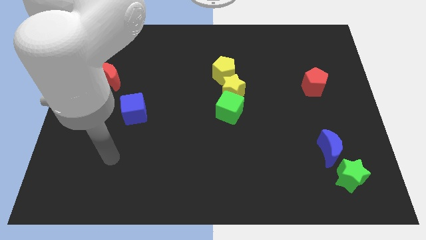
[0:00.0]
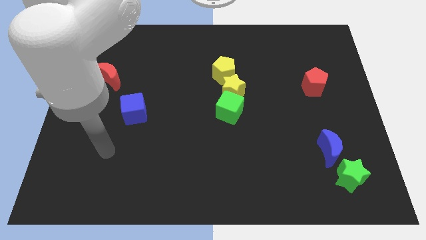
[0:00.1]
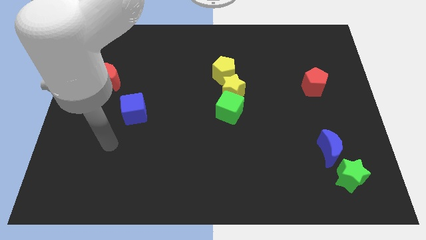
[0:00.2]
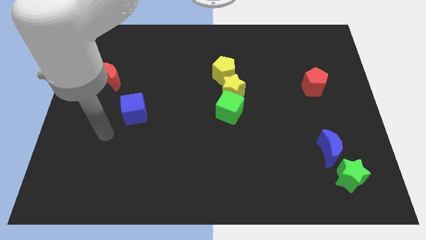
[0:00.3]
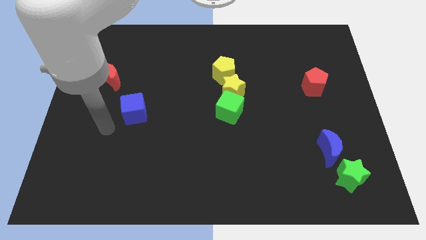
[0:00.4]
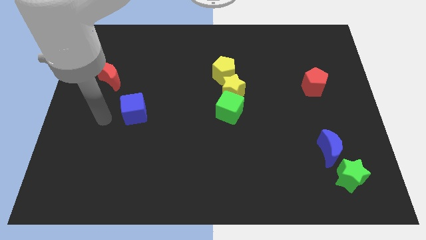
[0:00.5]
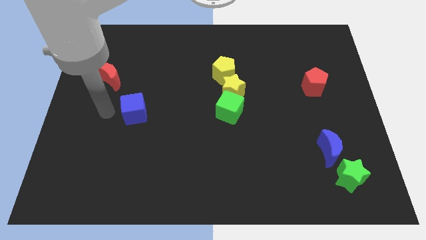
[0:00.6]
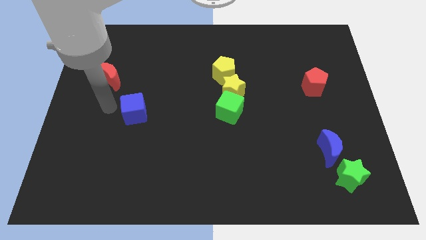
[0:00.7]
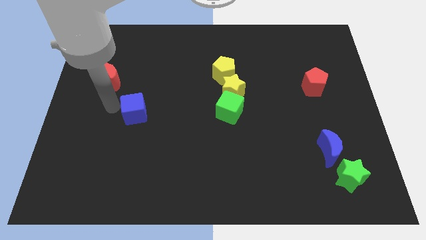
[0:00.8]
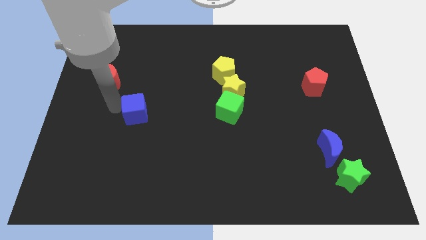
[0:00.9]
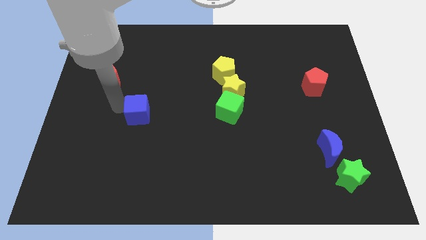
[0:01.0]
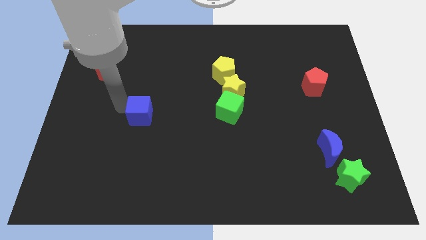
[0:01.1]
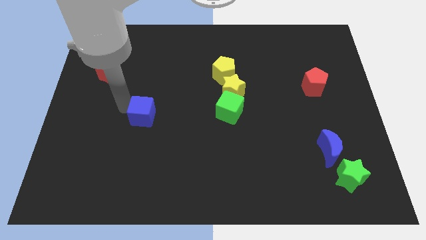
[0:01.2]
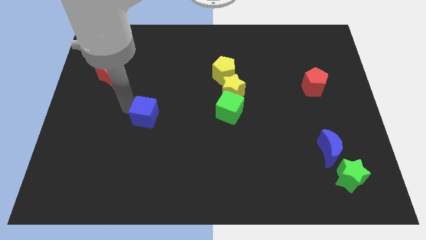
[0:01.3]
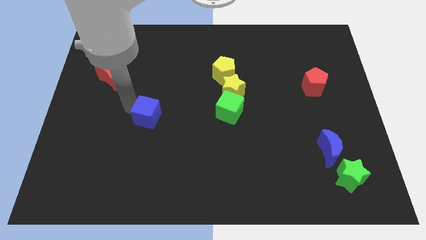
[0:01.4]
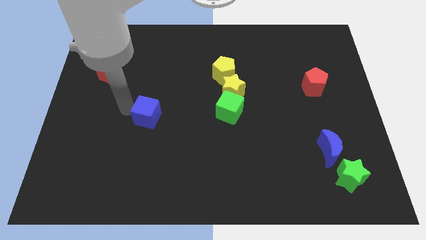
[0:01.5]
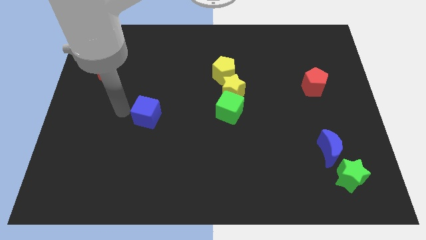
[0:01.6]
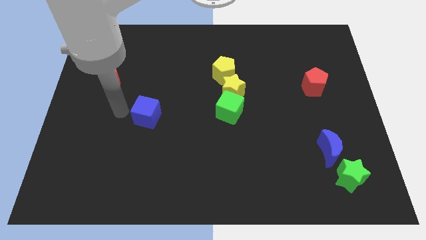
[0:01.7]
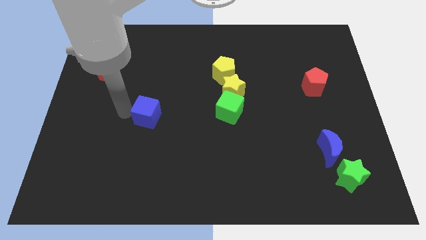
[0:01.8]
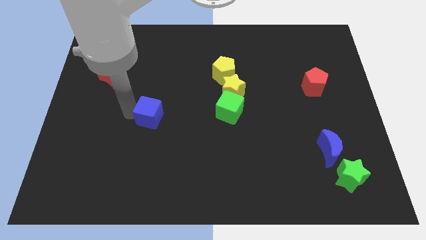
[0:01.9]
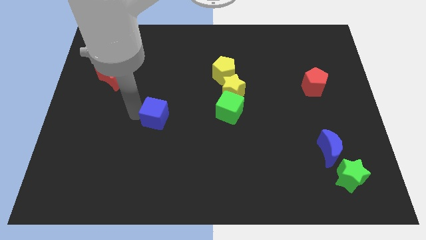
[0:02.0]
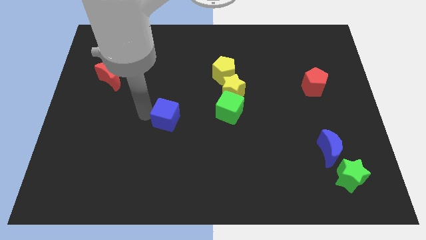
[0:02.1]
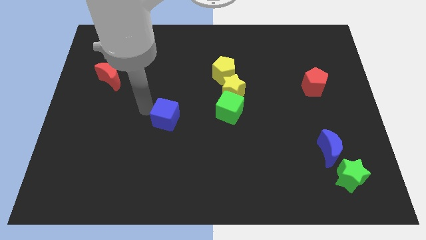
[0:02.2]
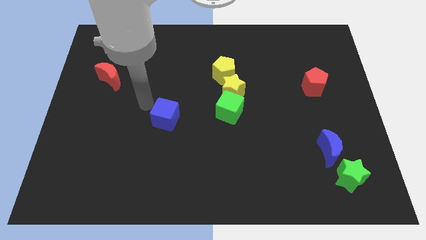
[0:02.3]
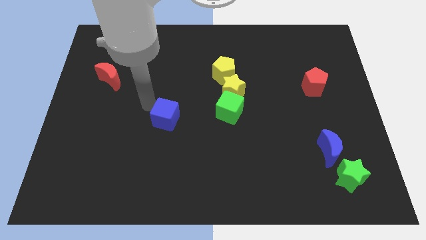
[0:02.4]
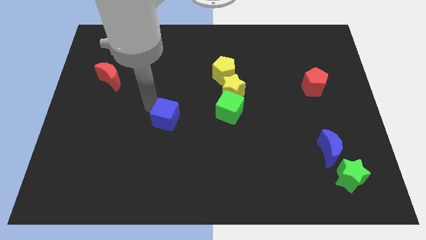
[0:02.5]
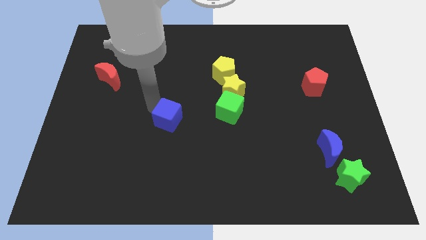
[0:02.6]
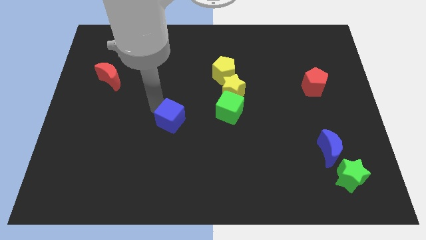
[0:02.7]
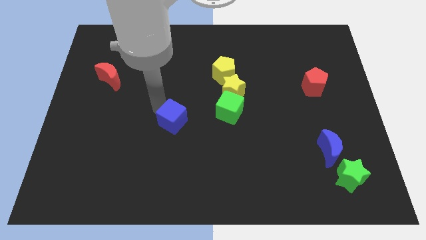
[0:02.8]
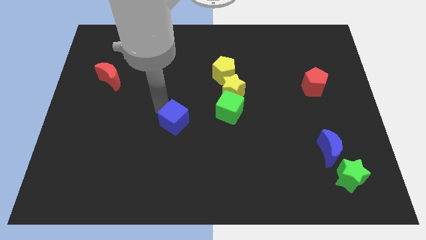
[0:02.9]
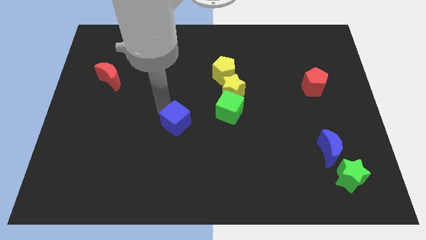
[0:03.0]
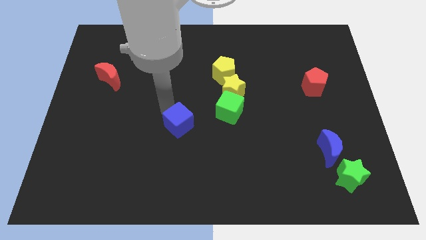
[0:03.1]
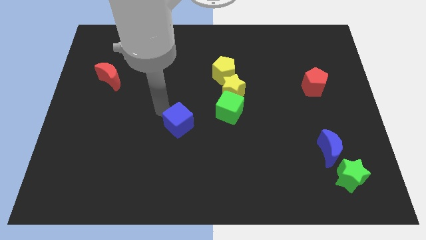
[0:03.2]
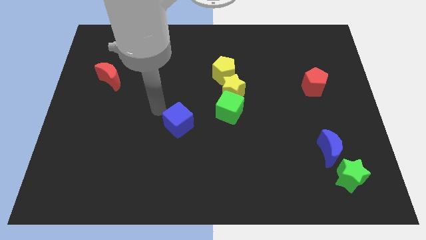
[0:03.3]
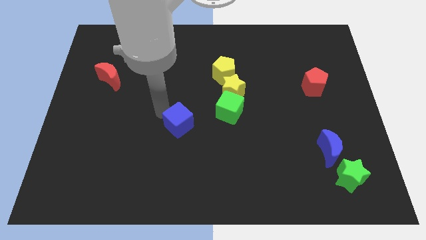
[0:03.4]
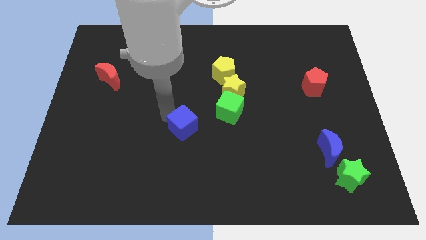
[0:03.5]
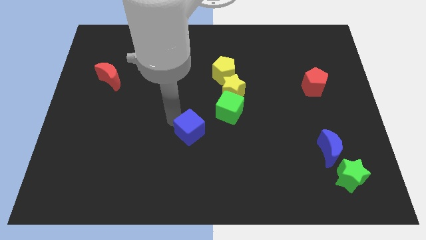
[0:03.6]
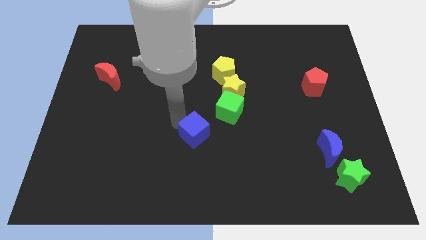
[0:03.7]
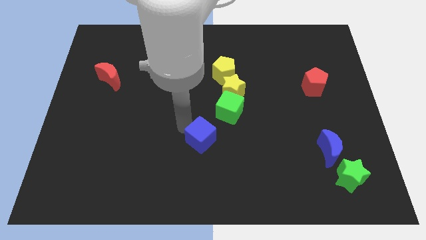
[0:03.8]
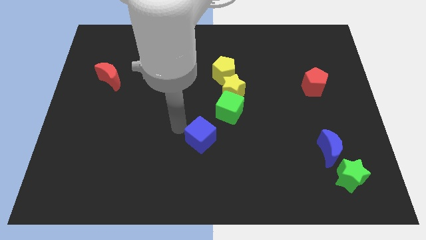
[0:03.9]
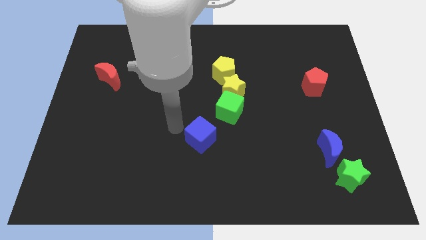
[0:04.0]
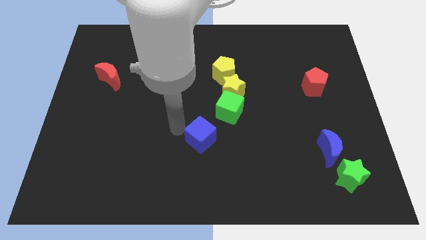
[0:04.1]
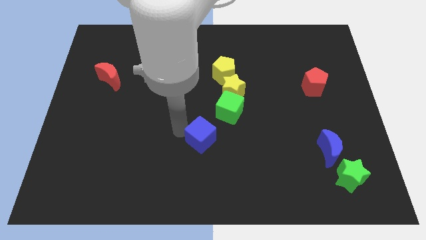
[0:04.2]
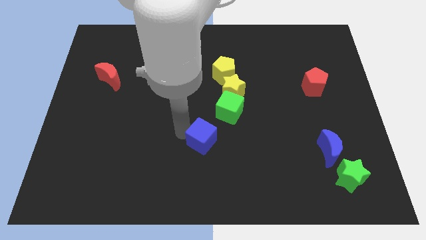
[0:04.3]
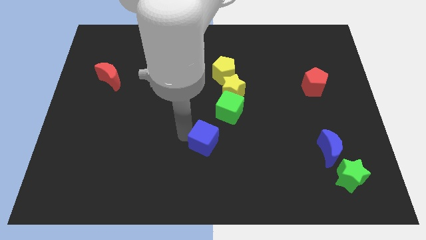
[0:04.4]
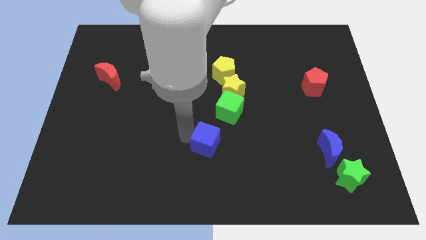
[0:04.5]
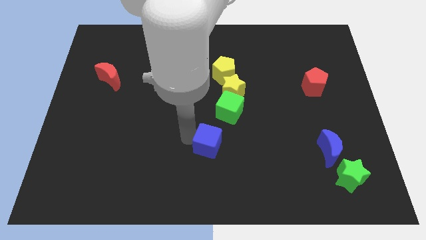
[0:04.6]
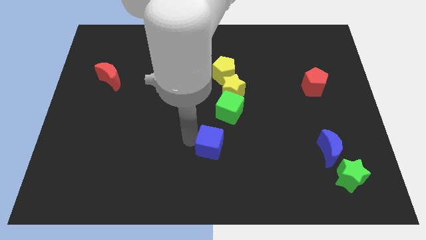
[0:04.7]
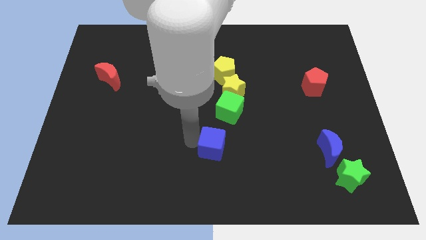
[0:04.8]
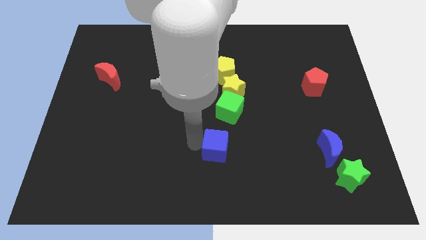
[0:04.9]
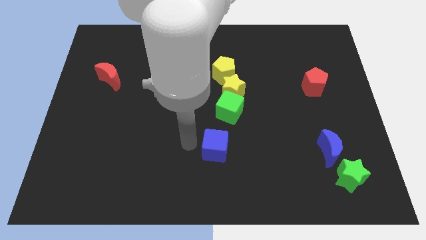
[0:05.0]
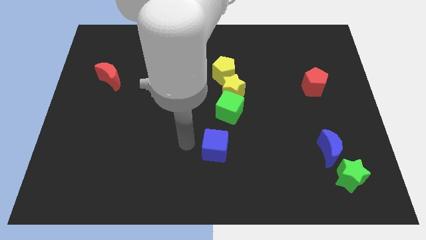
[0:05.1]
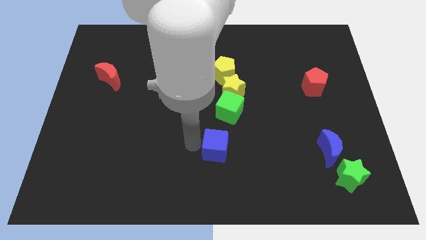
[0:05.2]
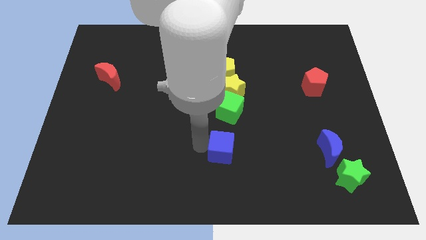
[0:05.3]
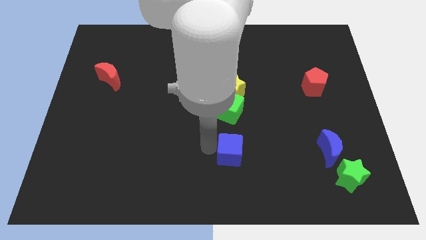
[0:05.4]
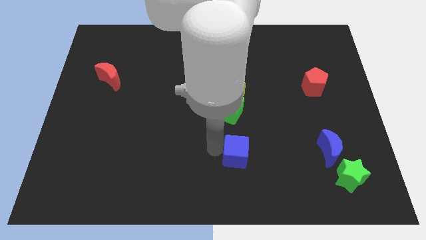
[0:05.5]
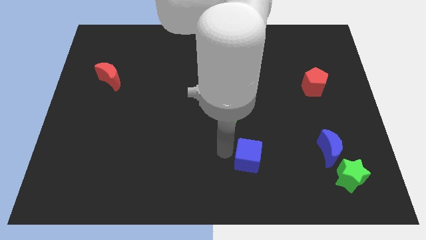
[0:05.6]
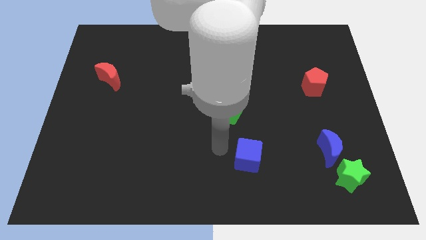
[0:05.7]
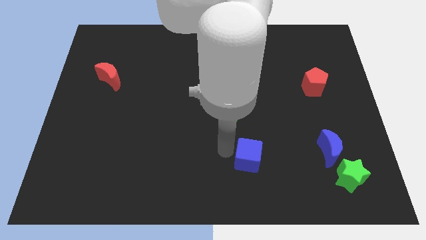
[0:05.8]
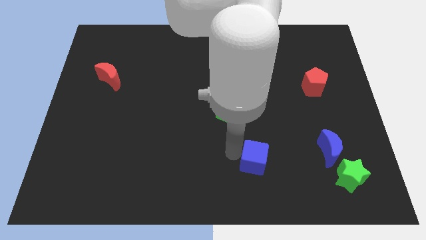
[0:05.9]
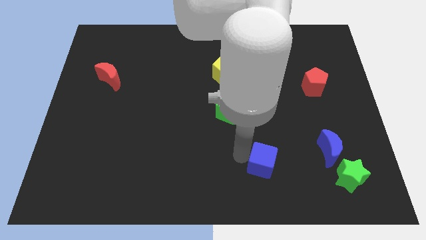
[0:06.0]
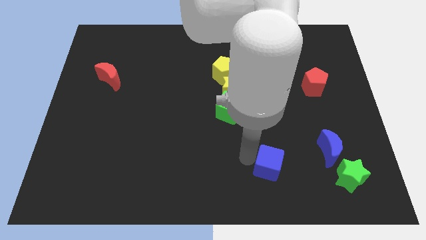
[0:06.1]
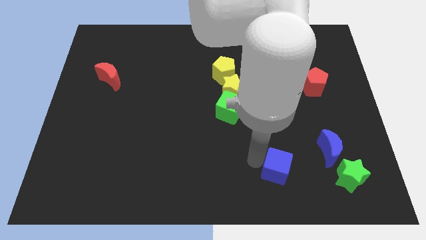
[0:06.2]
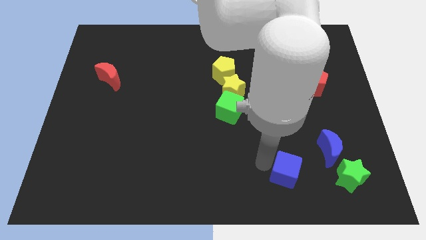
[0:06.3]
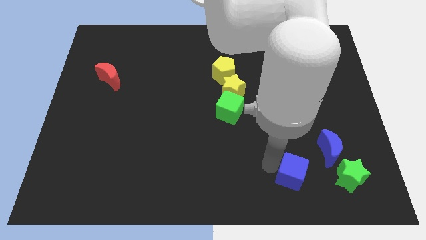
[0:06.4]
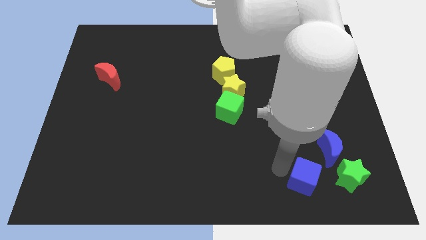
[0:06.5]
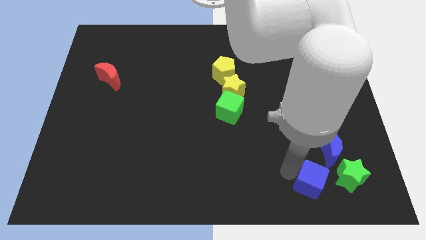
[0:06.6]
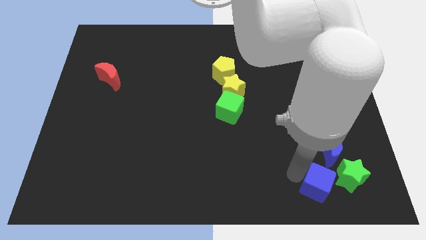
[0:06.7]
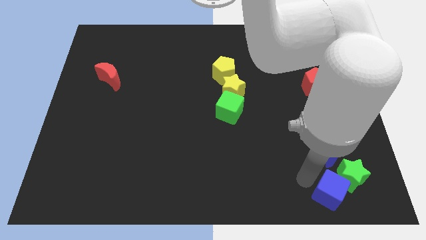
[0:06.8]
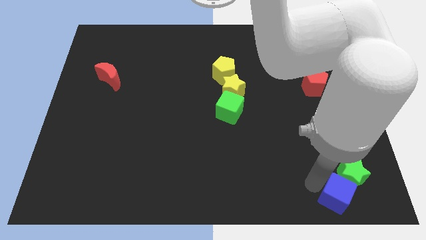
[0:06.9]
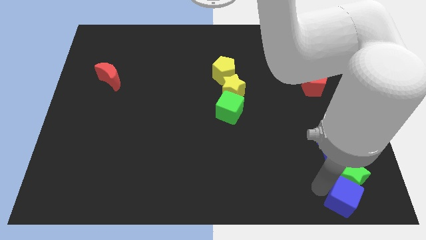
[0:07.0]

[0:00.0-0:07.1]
put the blue cube to the bottom right of the board
